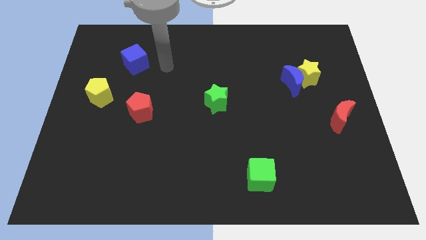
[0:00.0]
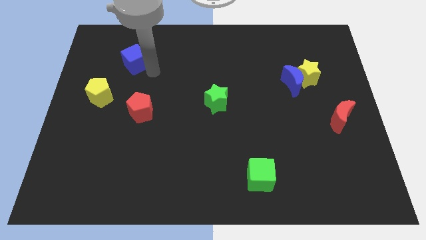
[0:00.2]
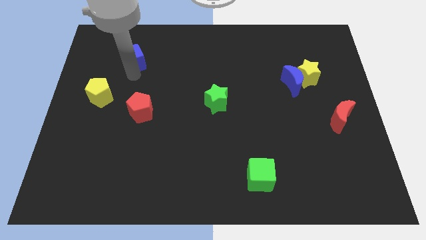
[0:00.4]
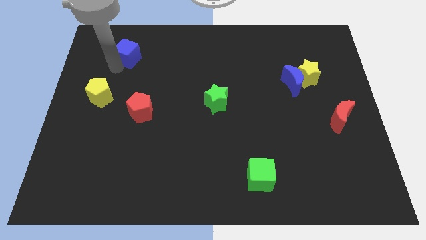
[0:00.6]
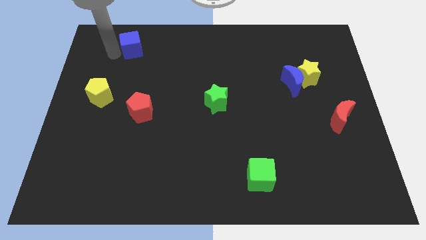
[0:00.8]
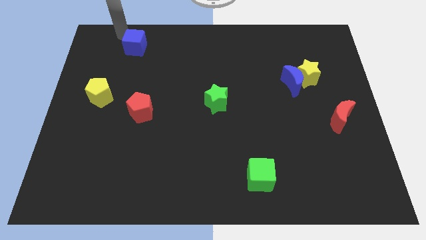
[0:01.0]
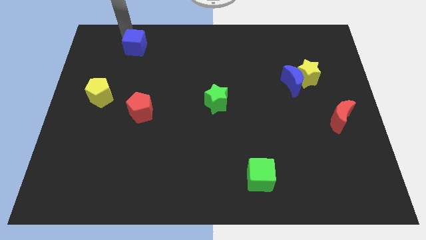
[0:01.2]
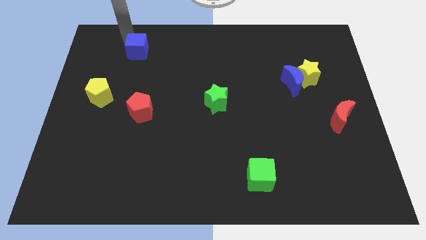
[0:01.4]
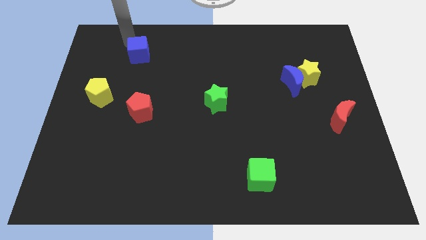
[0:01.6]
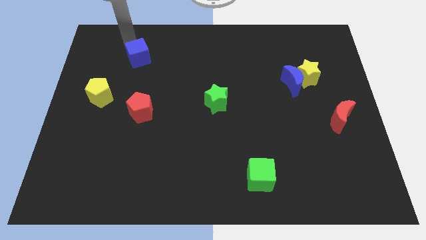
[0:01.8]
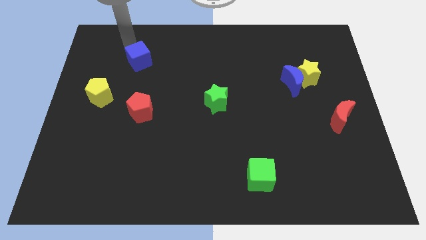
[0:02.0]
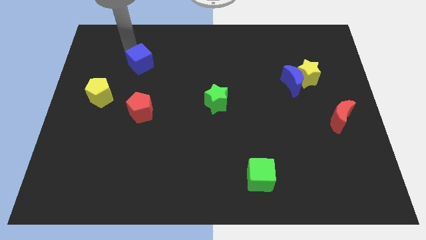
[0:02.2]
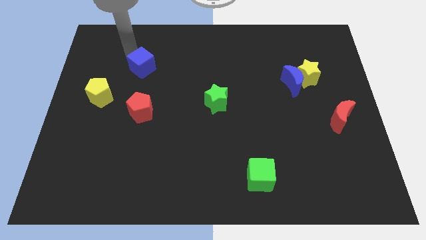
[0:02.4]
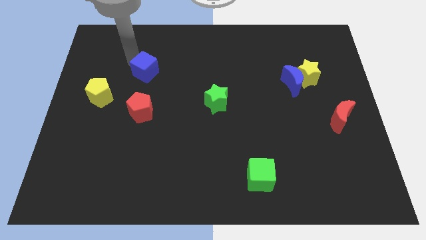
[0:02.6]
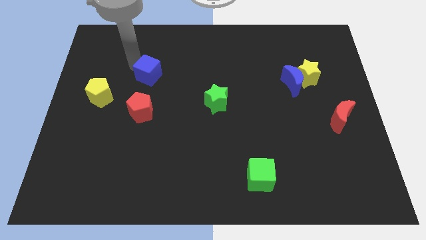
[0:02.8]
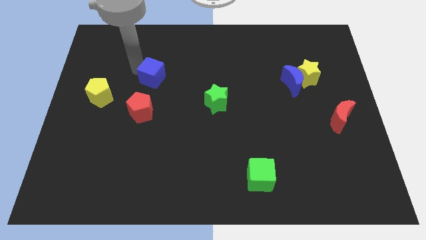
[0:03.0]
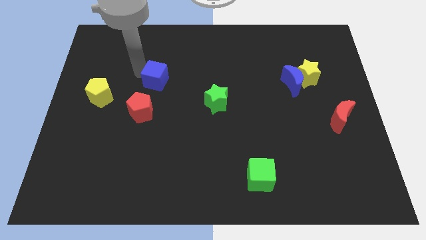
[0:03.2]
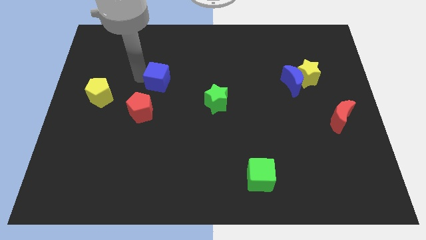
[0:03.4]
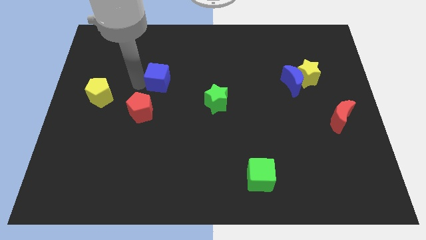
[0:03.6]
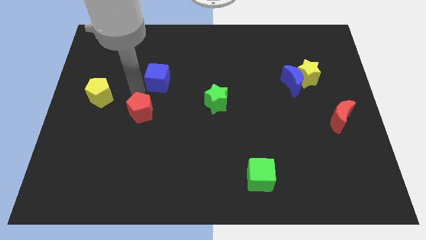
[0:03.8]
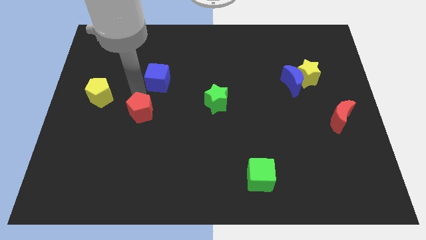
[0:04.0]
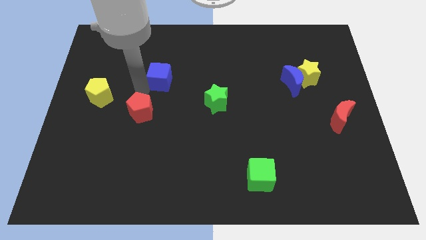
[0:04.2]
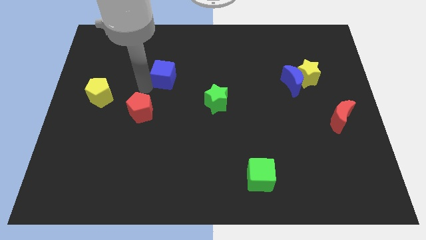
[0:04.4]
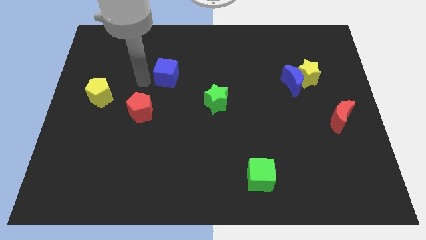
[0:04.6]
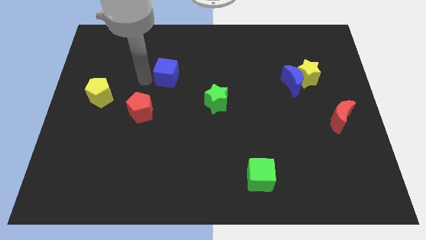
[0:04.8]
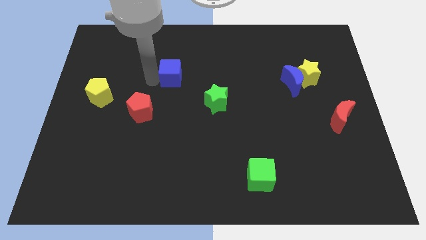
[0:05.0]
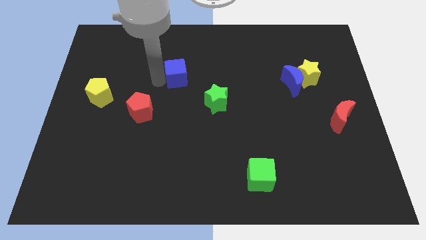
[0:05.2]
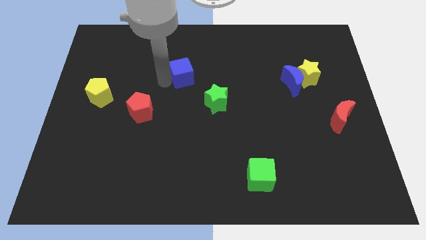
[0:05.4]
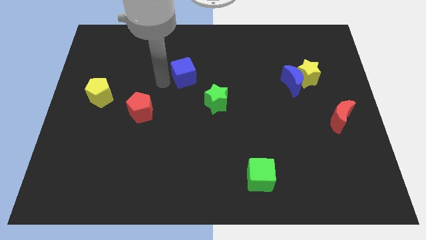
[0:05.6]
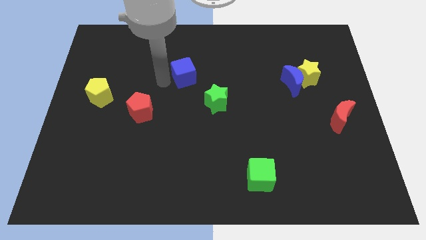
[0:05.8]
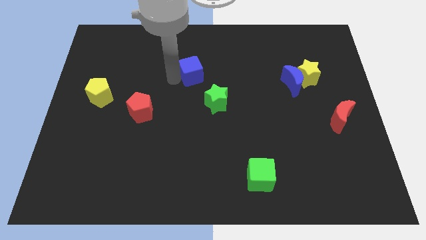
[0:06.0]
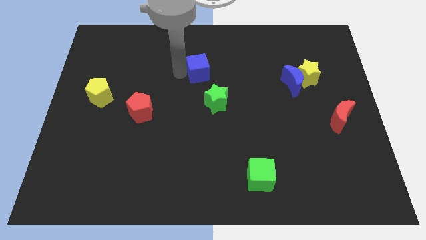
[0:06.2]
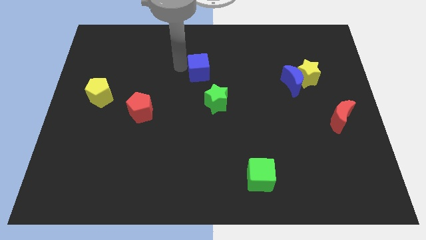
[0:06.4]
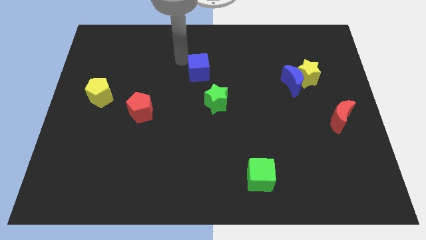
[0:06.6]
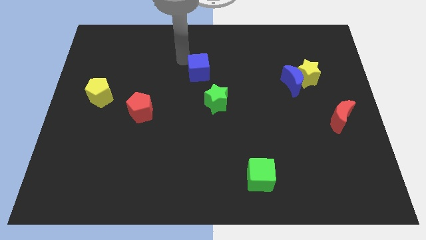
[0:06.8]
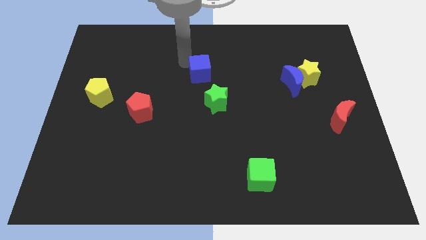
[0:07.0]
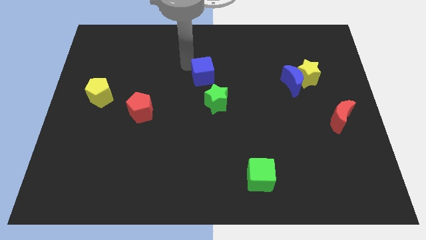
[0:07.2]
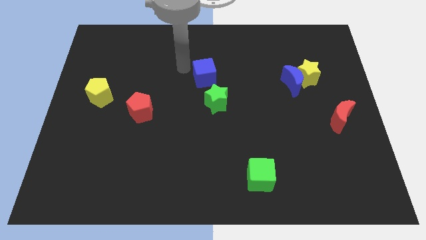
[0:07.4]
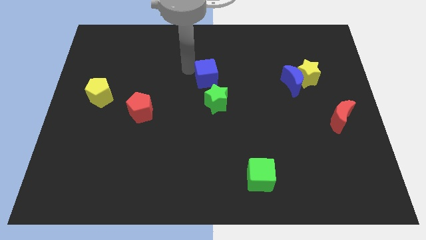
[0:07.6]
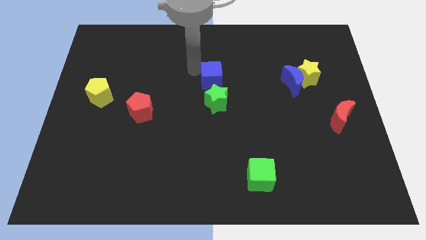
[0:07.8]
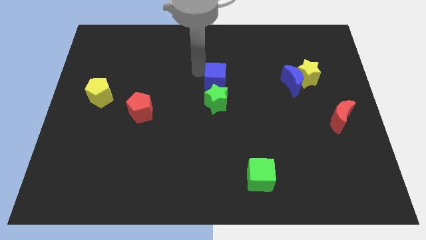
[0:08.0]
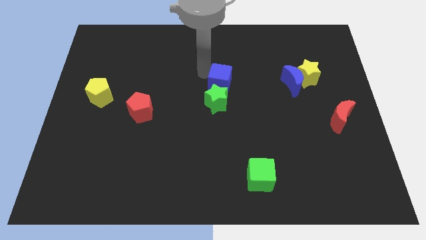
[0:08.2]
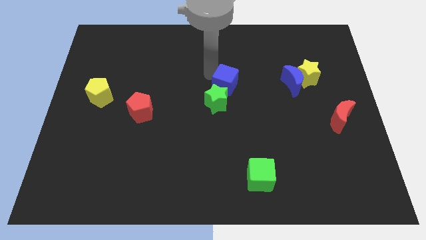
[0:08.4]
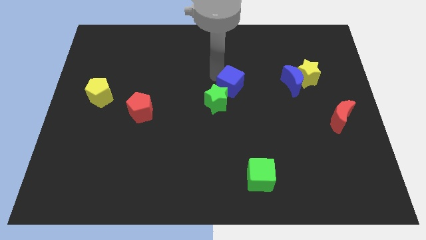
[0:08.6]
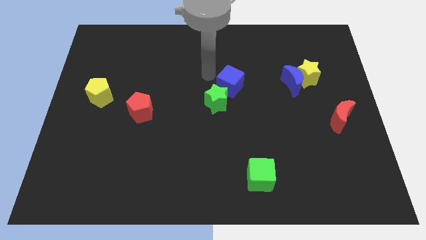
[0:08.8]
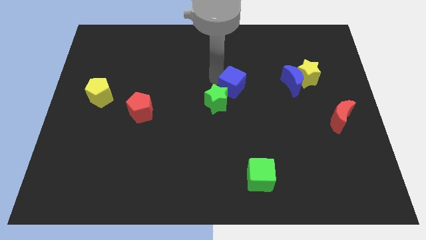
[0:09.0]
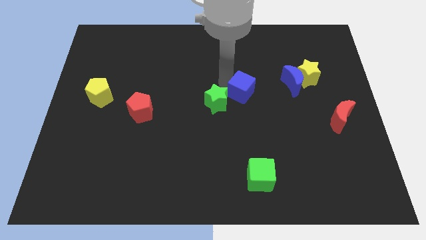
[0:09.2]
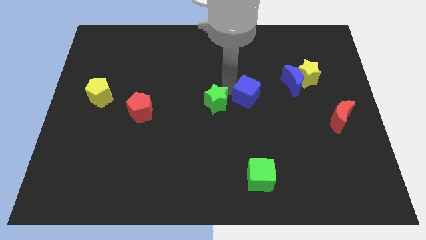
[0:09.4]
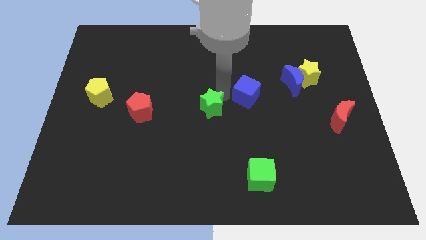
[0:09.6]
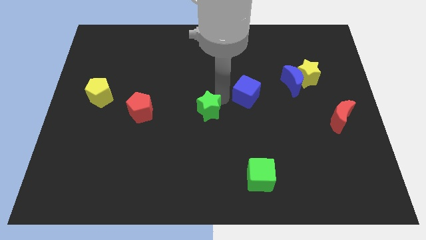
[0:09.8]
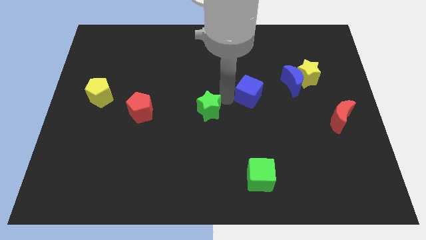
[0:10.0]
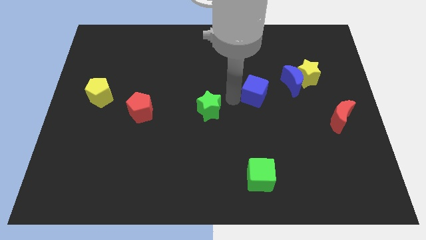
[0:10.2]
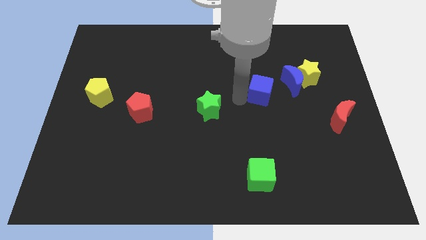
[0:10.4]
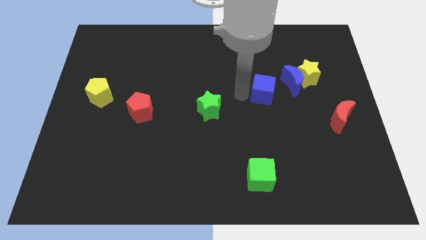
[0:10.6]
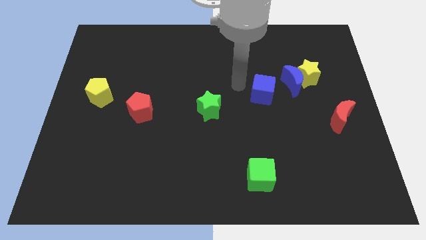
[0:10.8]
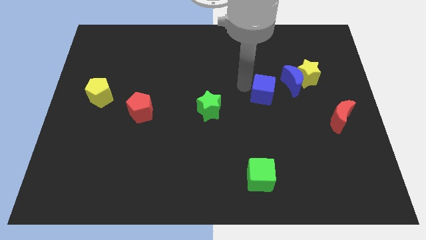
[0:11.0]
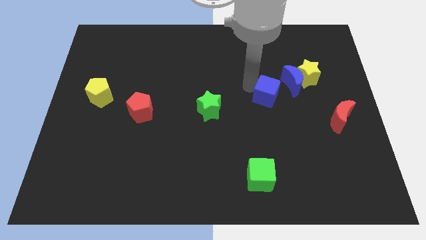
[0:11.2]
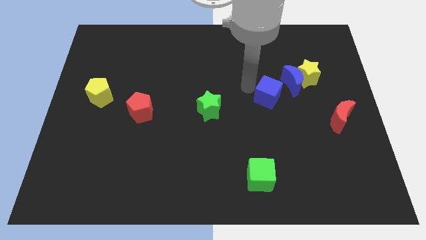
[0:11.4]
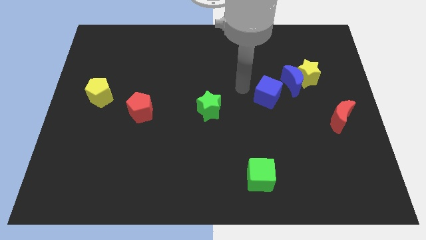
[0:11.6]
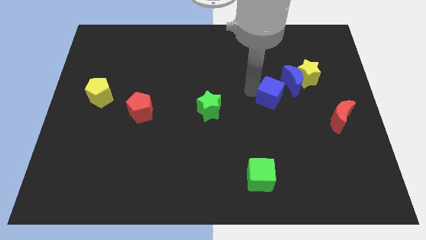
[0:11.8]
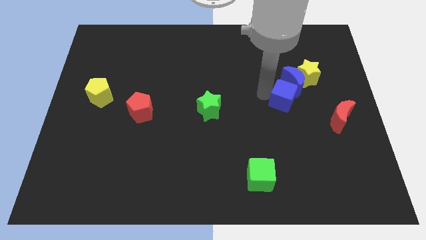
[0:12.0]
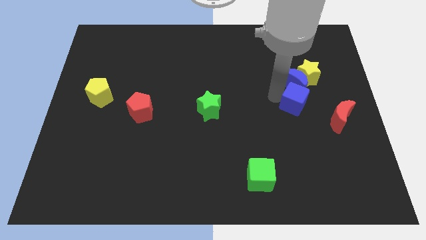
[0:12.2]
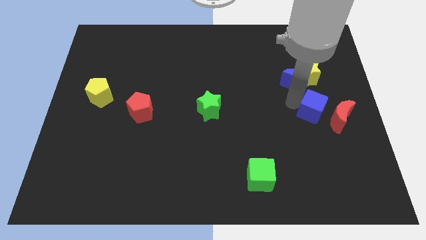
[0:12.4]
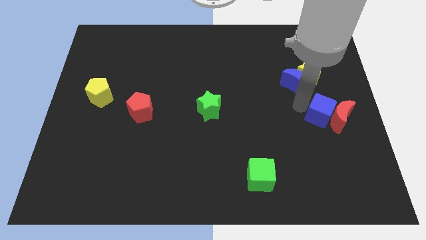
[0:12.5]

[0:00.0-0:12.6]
push the blue cube towards the red moon
